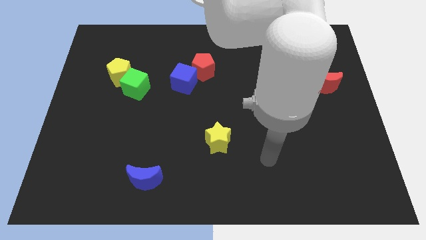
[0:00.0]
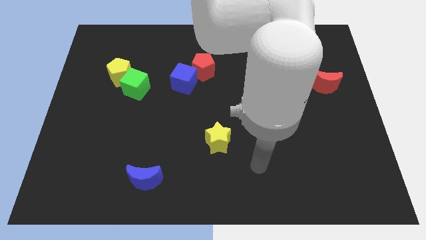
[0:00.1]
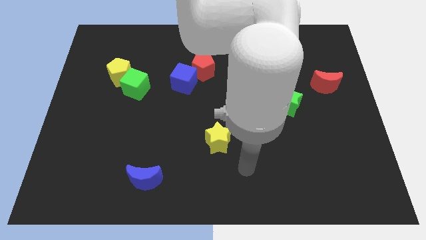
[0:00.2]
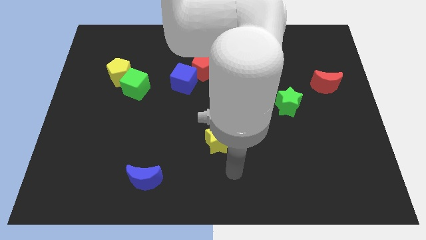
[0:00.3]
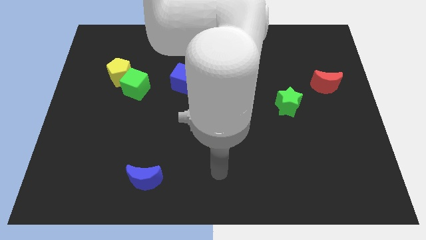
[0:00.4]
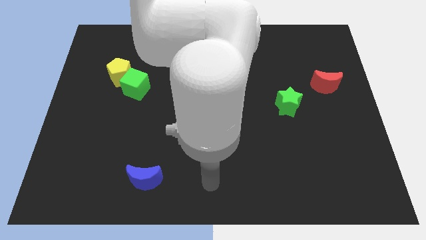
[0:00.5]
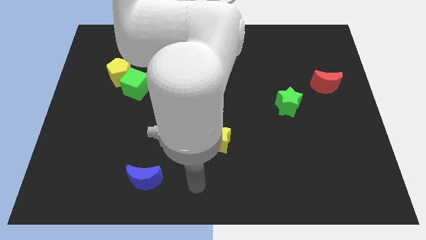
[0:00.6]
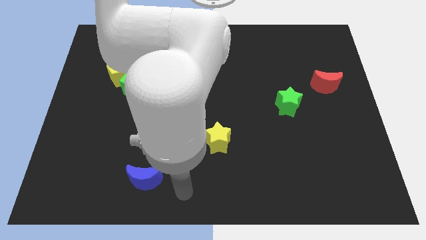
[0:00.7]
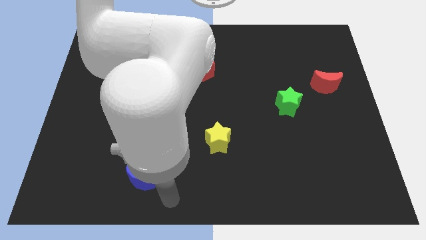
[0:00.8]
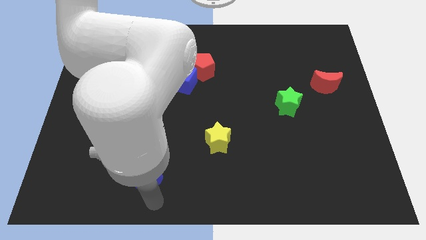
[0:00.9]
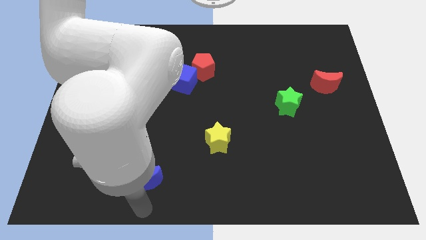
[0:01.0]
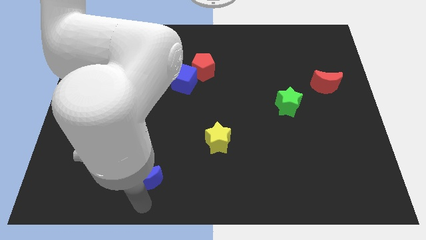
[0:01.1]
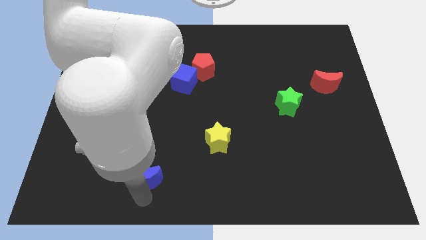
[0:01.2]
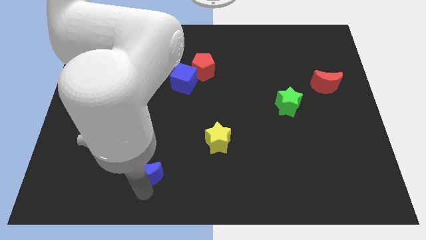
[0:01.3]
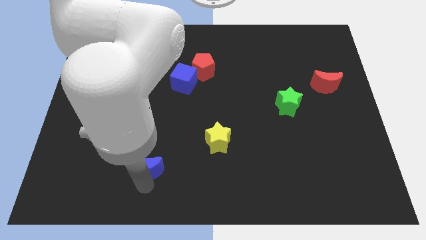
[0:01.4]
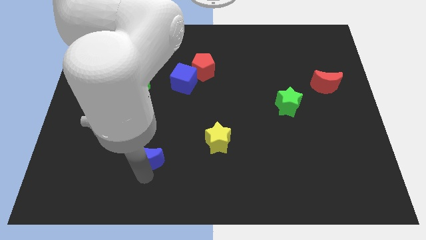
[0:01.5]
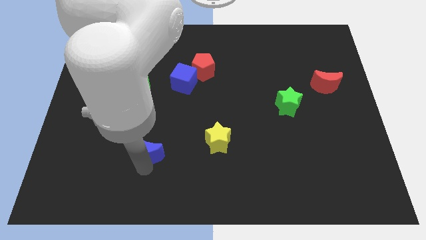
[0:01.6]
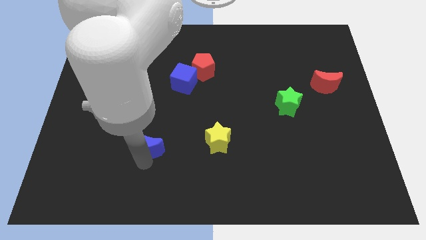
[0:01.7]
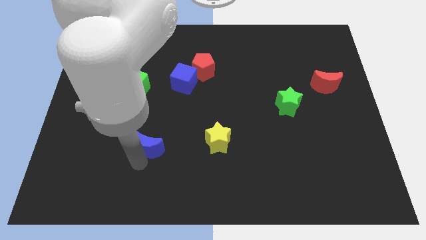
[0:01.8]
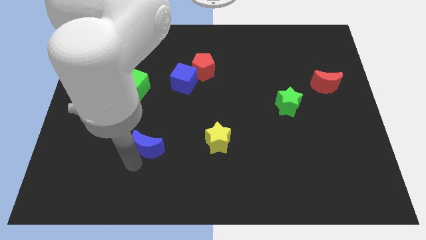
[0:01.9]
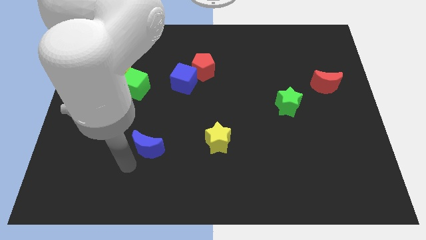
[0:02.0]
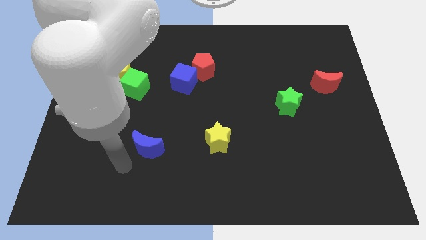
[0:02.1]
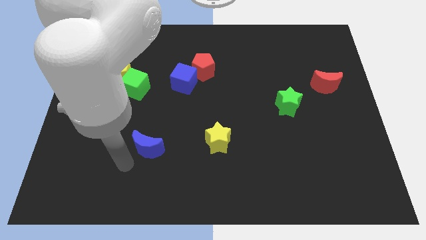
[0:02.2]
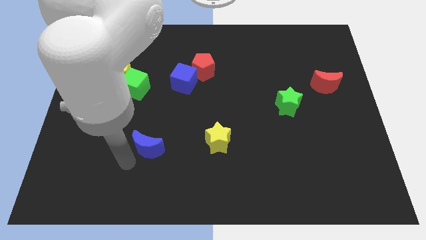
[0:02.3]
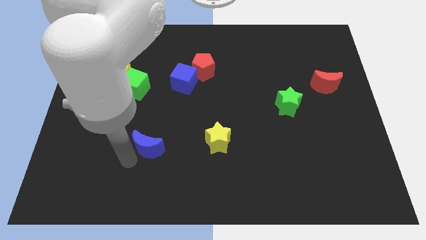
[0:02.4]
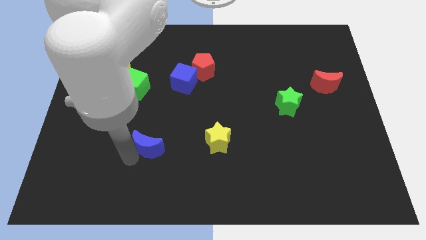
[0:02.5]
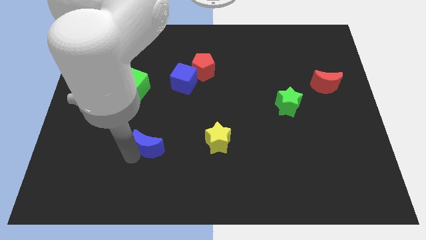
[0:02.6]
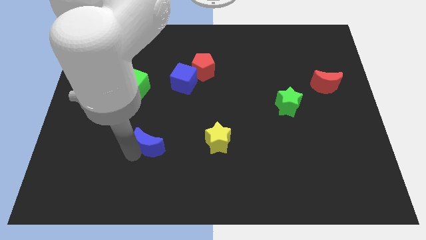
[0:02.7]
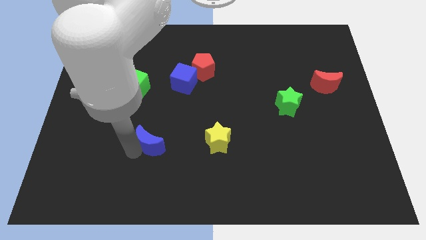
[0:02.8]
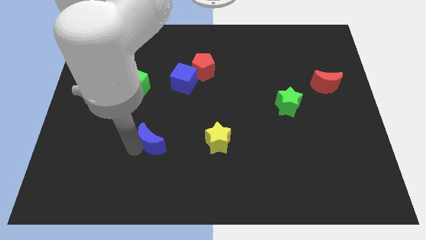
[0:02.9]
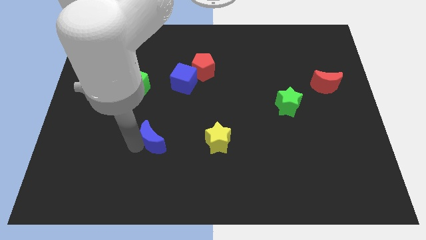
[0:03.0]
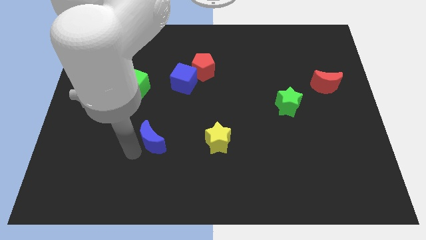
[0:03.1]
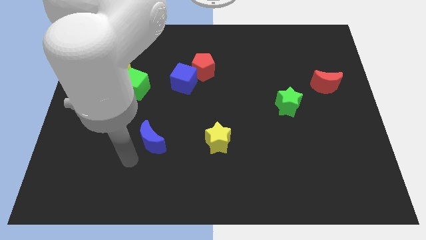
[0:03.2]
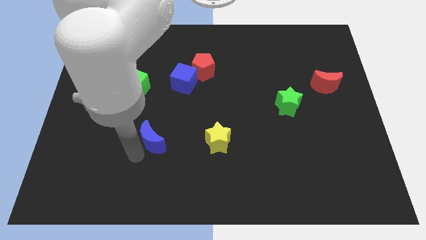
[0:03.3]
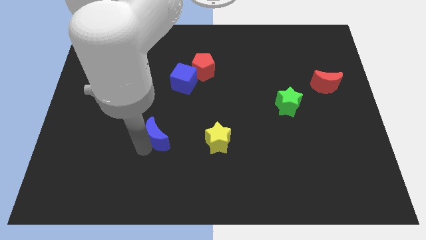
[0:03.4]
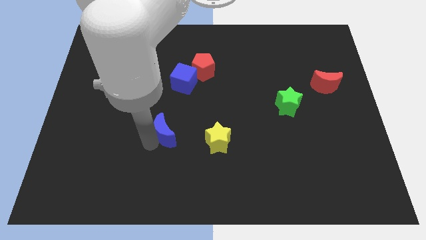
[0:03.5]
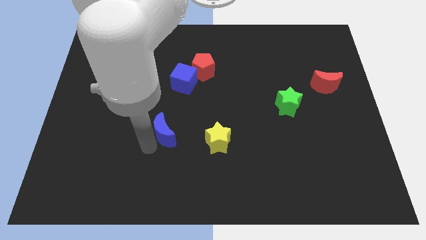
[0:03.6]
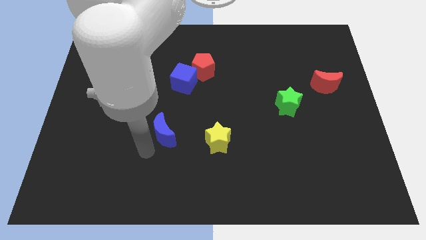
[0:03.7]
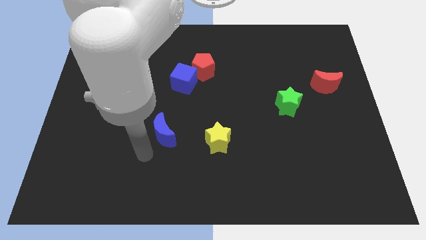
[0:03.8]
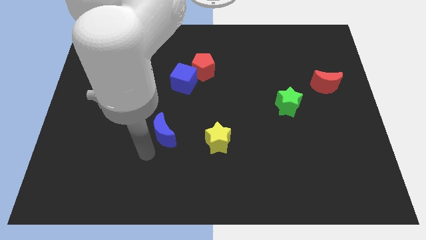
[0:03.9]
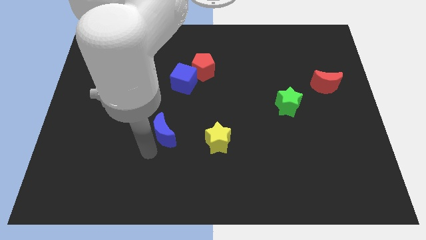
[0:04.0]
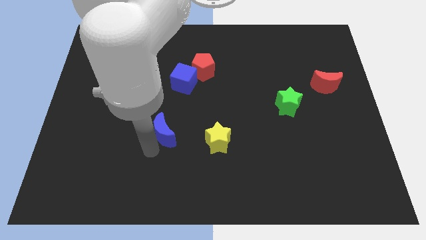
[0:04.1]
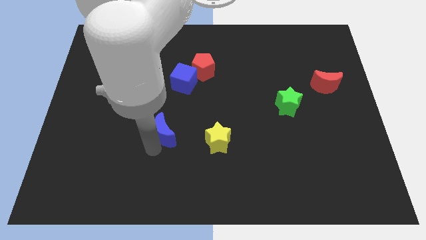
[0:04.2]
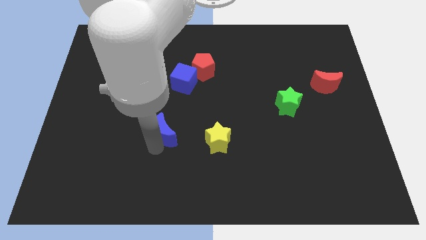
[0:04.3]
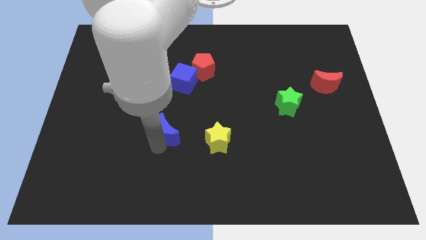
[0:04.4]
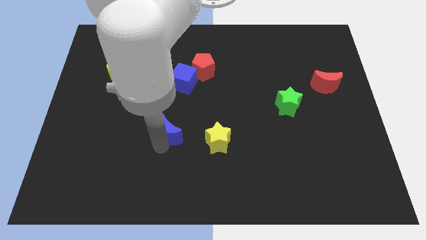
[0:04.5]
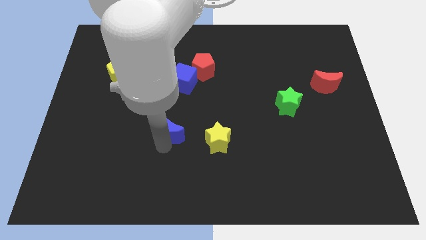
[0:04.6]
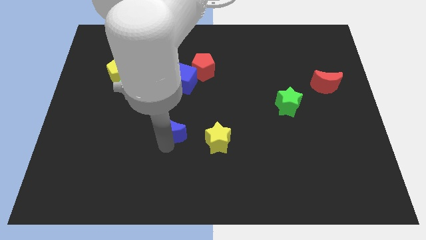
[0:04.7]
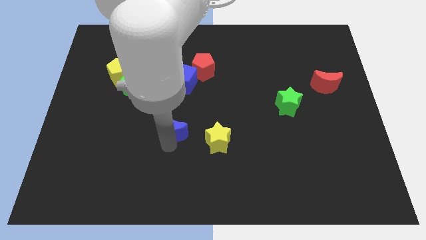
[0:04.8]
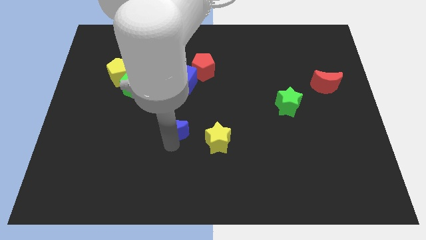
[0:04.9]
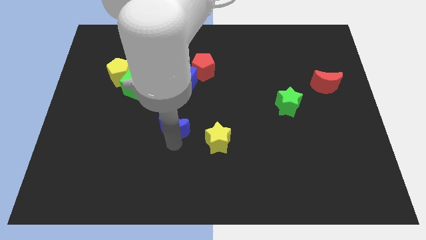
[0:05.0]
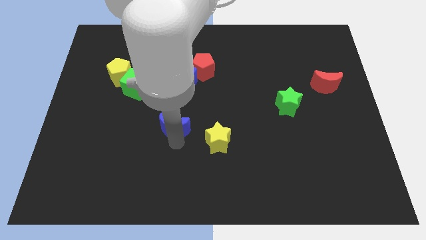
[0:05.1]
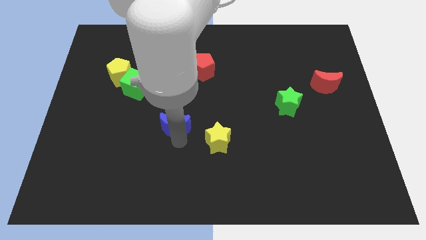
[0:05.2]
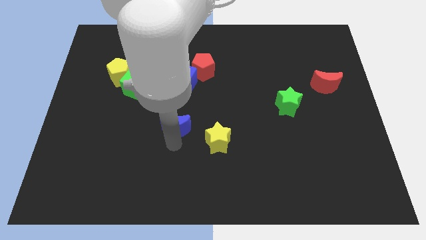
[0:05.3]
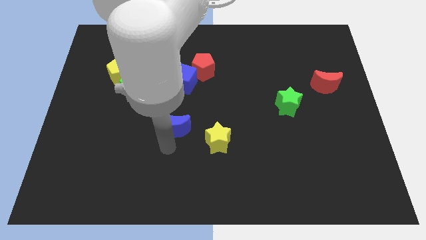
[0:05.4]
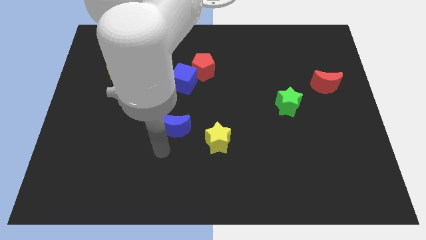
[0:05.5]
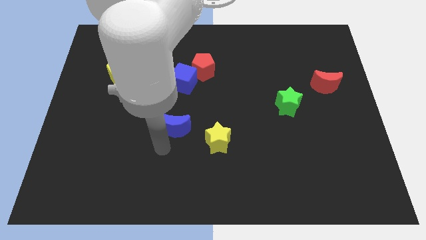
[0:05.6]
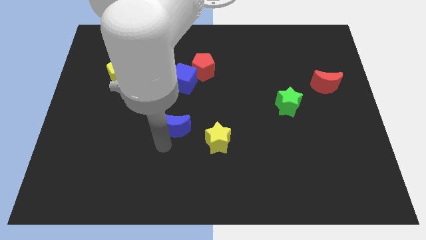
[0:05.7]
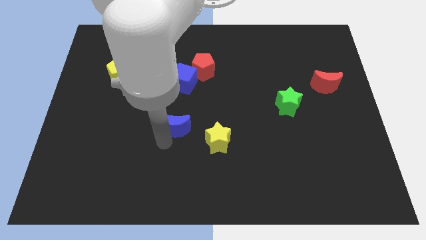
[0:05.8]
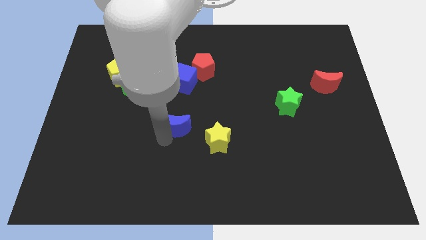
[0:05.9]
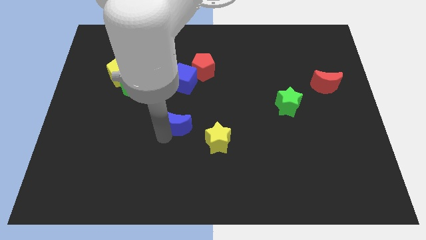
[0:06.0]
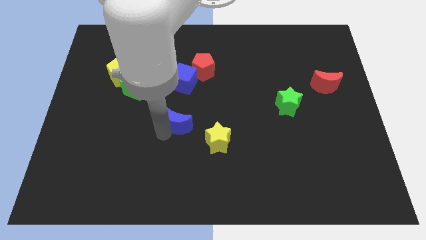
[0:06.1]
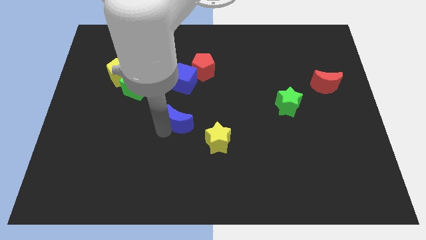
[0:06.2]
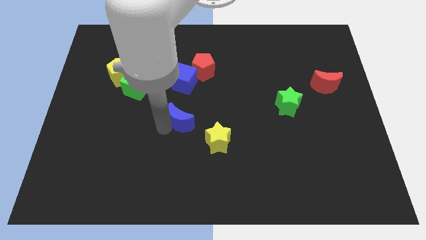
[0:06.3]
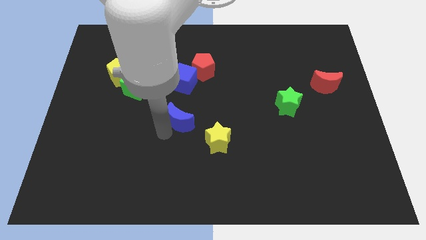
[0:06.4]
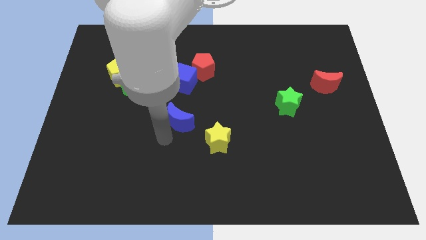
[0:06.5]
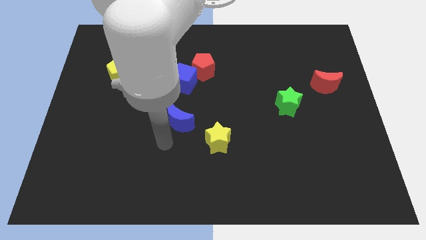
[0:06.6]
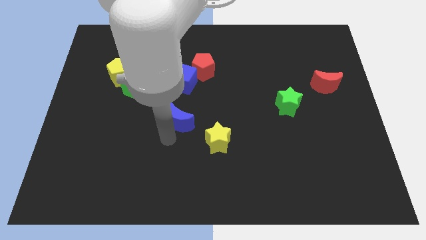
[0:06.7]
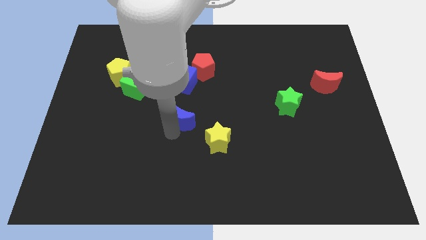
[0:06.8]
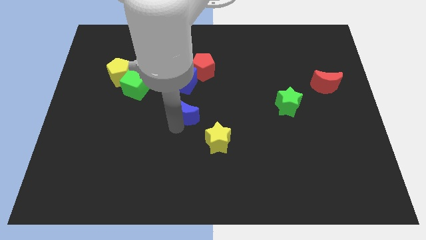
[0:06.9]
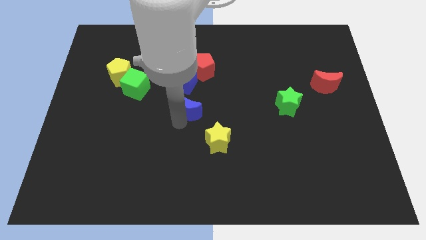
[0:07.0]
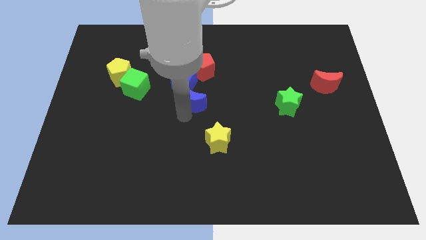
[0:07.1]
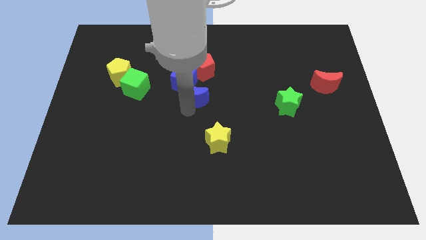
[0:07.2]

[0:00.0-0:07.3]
push the blue moon to the right side of the green cube
